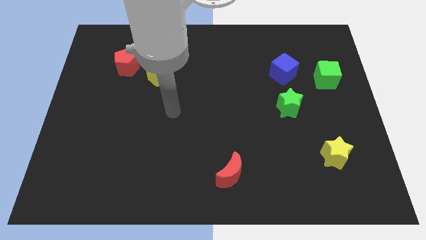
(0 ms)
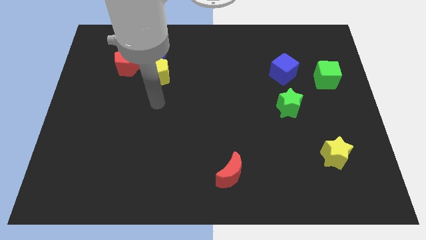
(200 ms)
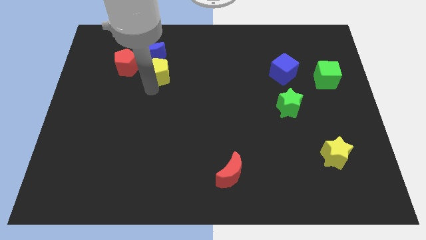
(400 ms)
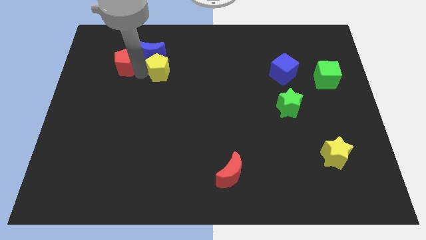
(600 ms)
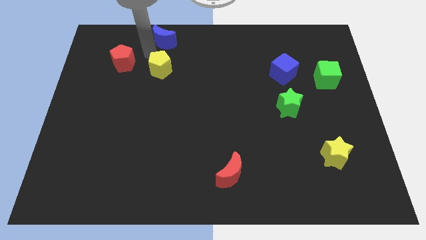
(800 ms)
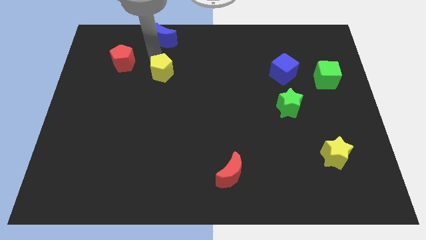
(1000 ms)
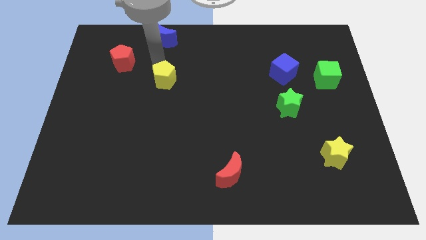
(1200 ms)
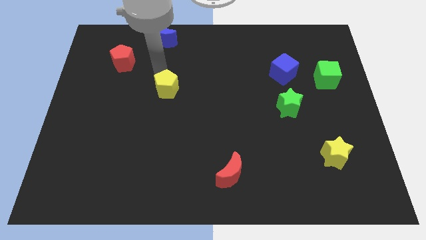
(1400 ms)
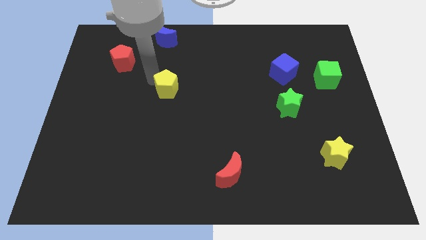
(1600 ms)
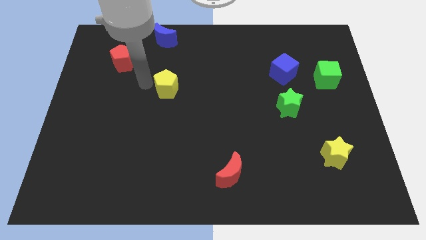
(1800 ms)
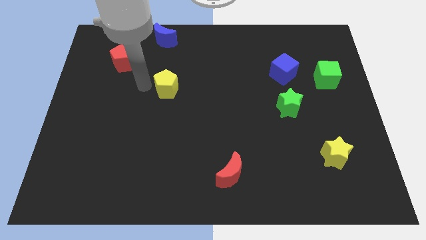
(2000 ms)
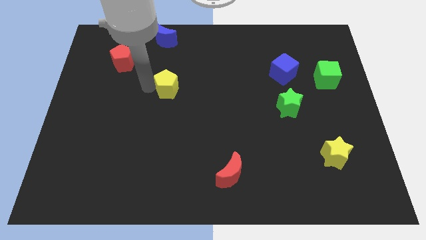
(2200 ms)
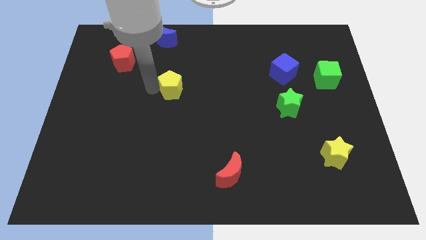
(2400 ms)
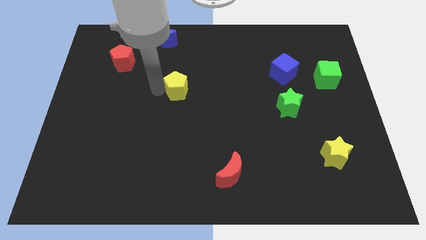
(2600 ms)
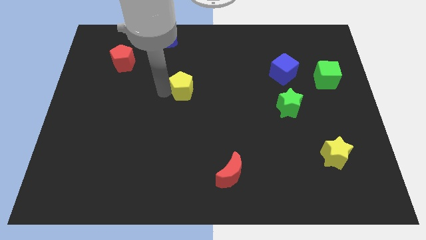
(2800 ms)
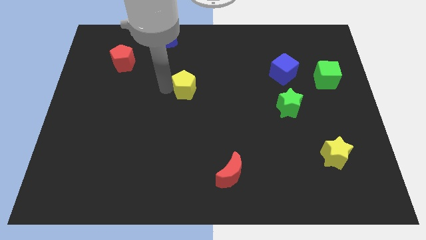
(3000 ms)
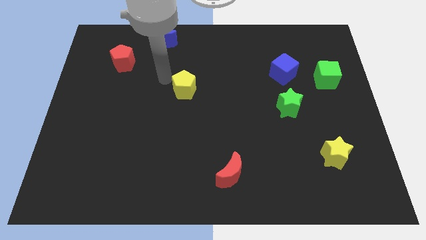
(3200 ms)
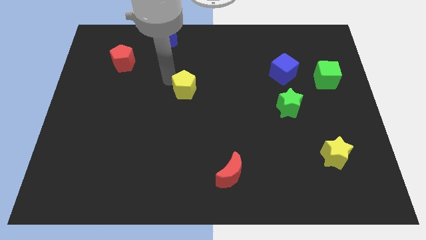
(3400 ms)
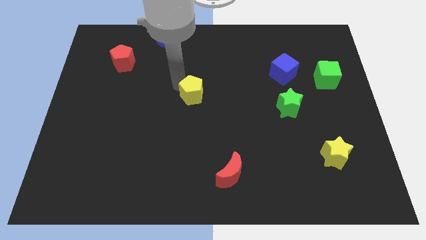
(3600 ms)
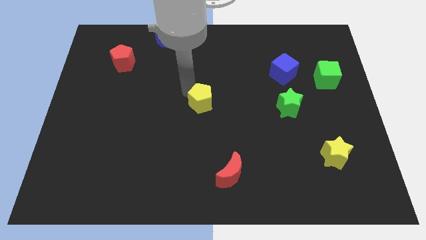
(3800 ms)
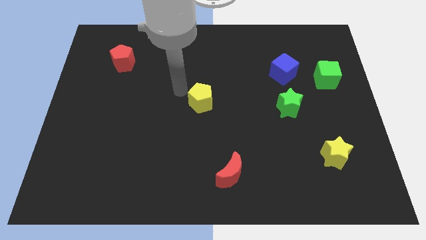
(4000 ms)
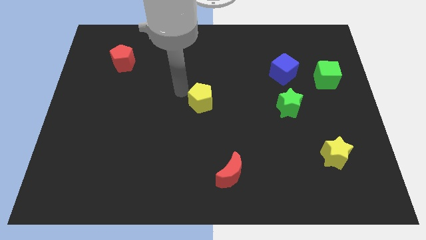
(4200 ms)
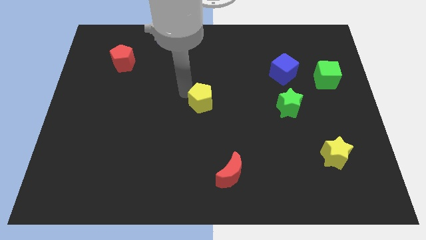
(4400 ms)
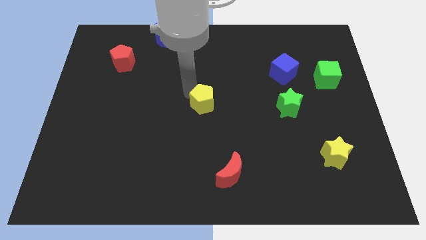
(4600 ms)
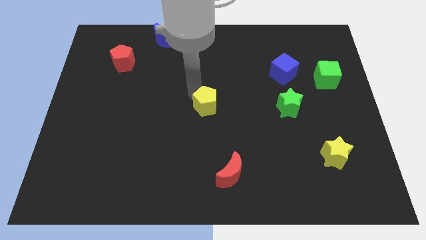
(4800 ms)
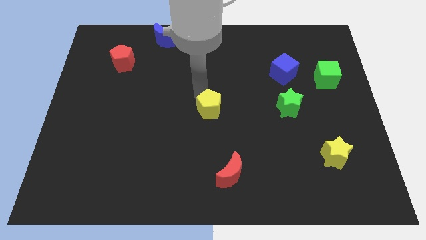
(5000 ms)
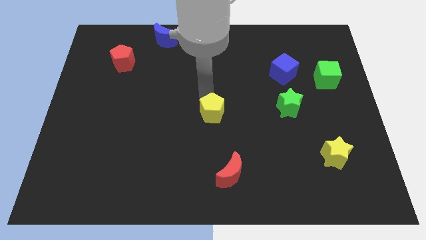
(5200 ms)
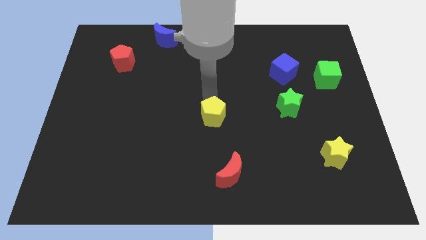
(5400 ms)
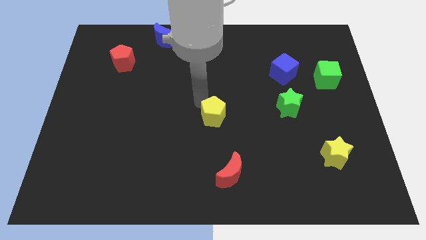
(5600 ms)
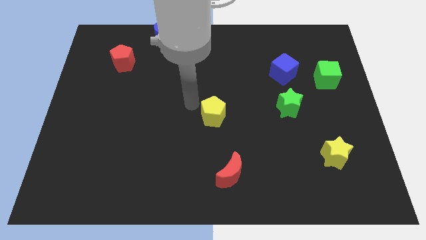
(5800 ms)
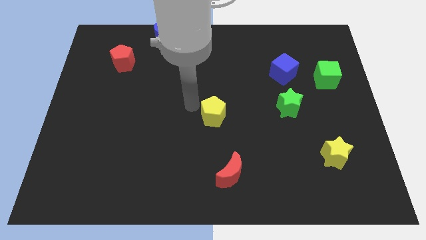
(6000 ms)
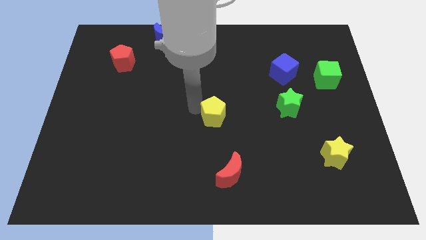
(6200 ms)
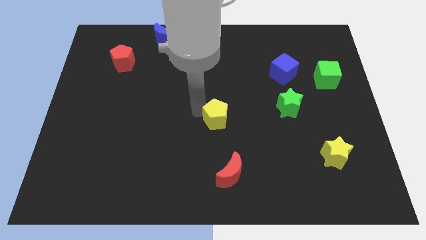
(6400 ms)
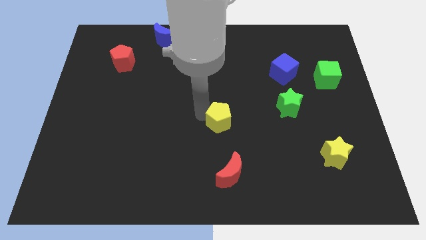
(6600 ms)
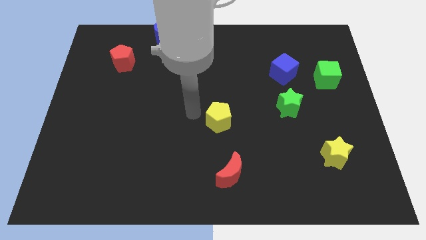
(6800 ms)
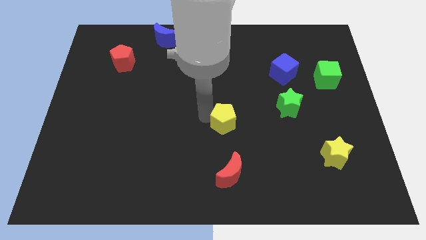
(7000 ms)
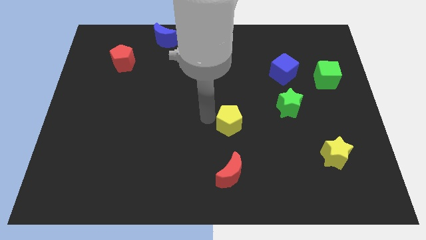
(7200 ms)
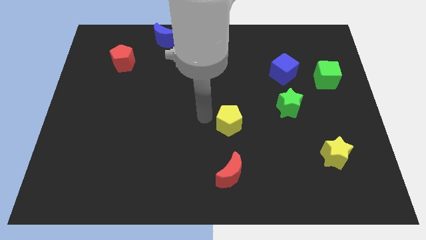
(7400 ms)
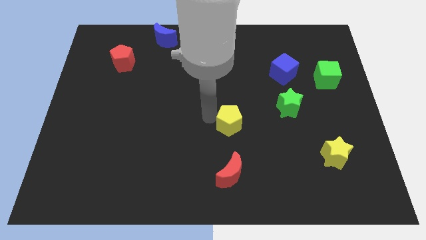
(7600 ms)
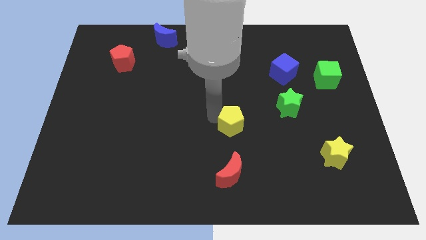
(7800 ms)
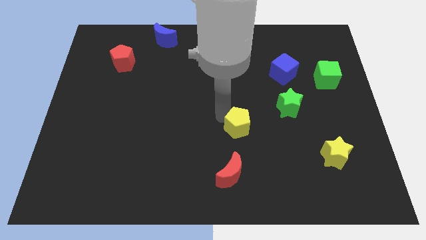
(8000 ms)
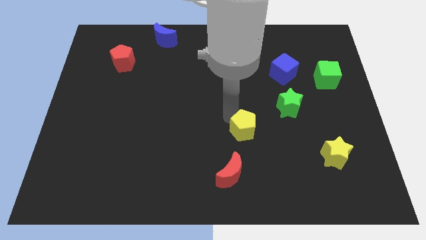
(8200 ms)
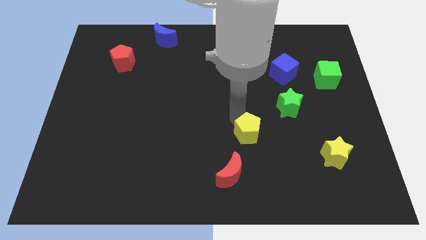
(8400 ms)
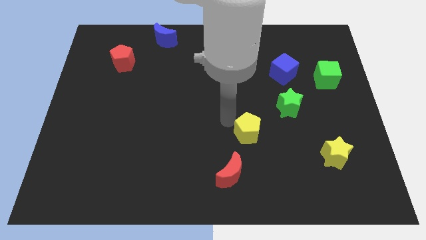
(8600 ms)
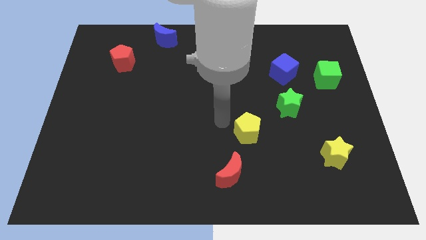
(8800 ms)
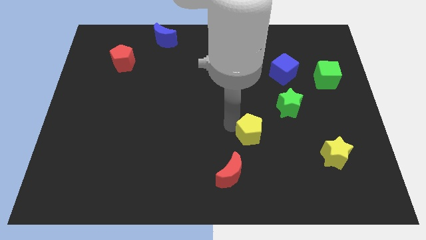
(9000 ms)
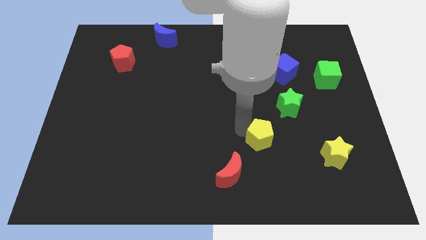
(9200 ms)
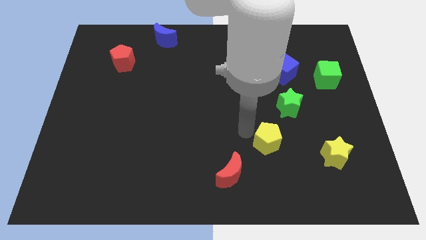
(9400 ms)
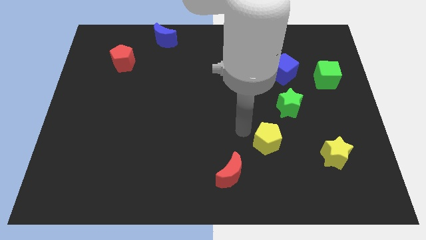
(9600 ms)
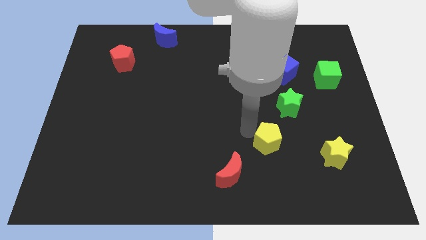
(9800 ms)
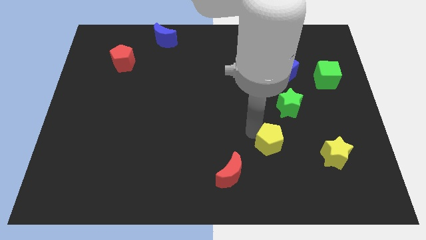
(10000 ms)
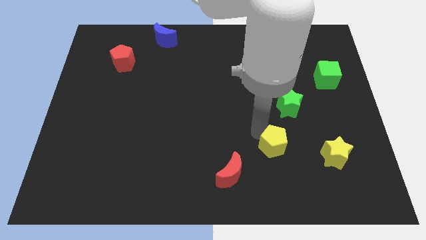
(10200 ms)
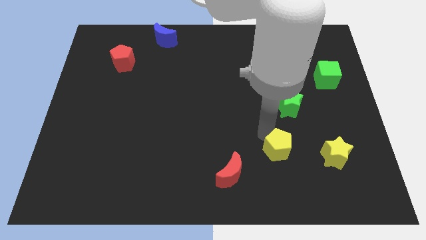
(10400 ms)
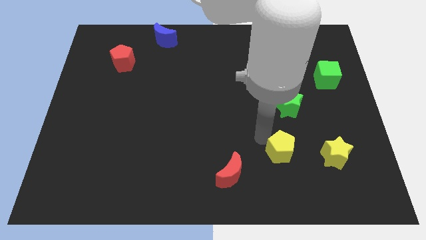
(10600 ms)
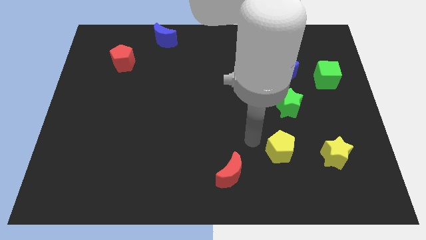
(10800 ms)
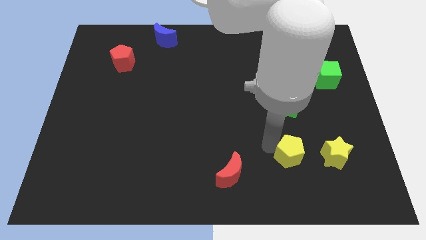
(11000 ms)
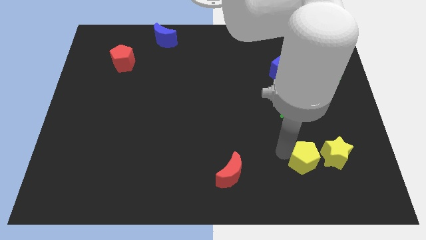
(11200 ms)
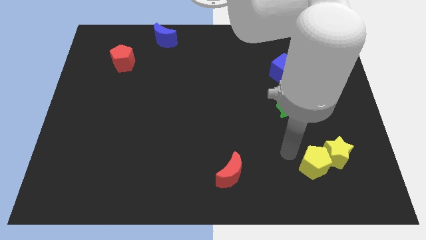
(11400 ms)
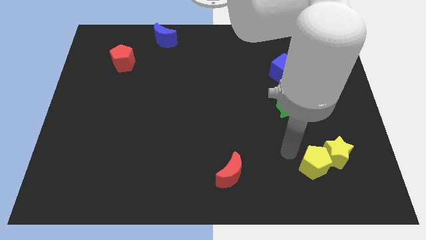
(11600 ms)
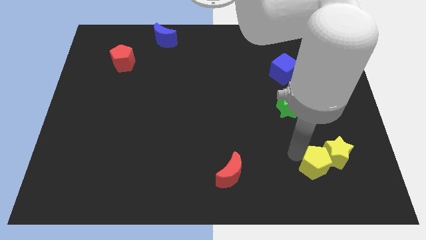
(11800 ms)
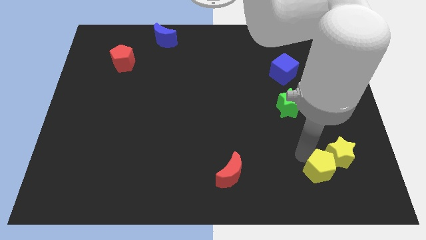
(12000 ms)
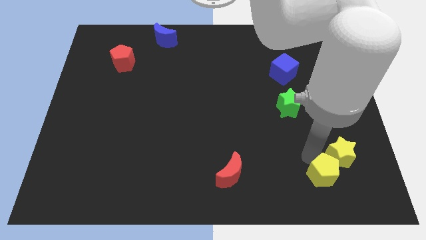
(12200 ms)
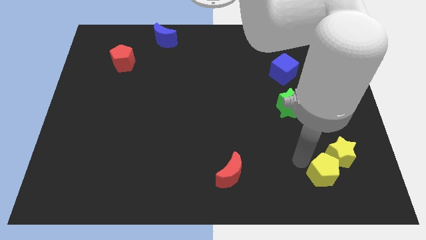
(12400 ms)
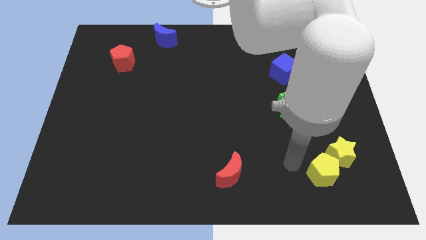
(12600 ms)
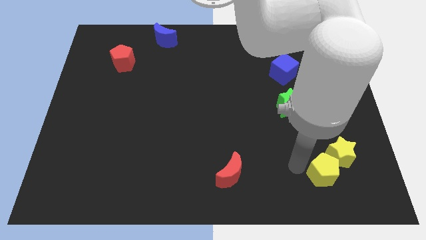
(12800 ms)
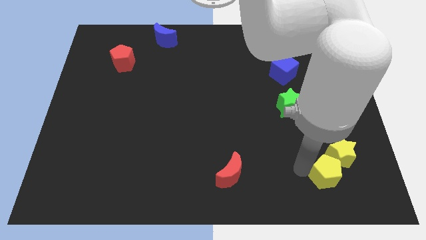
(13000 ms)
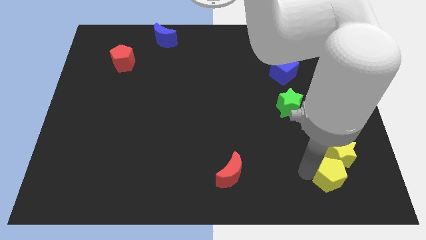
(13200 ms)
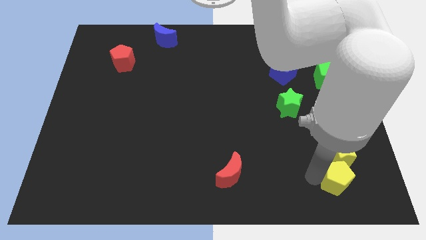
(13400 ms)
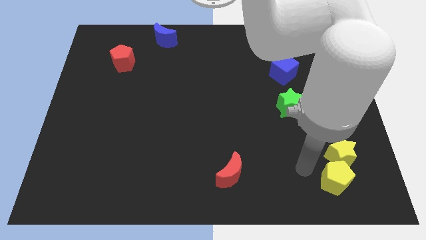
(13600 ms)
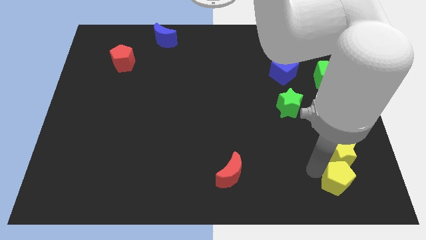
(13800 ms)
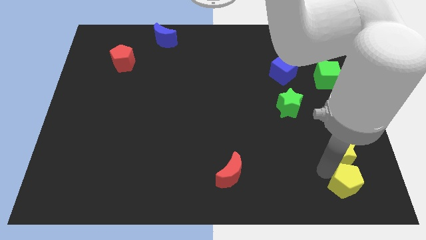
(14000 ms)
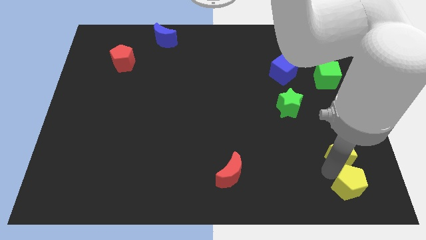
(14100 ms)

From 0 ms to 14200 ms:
move the yellow pentagon to the lower right corner

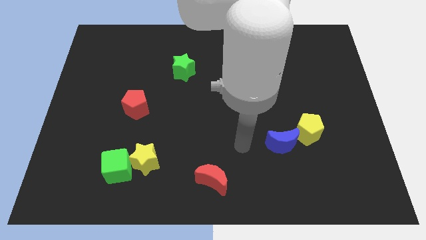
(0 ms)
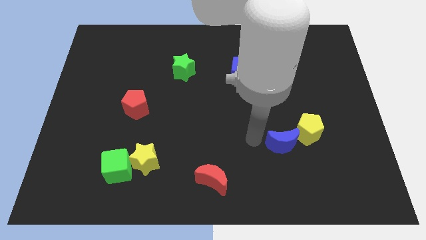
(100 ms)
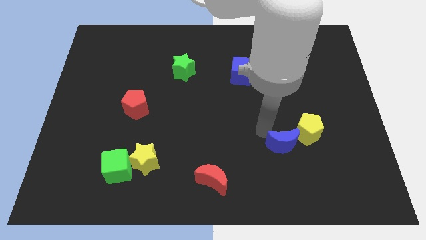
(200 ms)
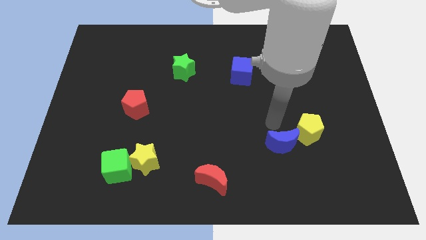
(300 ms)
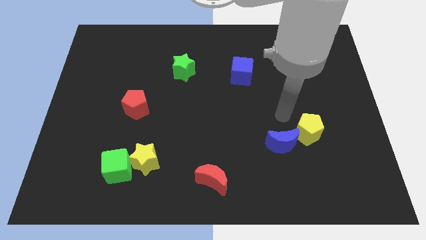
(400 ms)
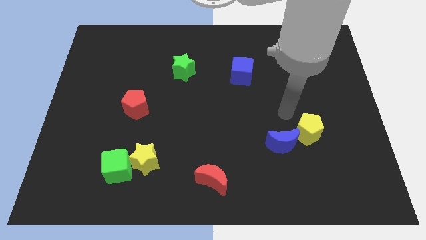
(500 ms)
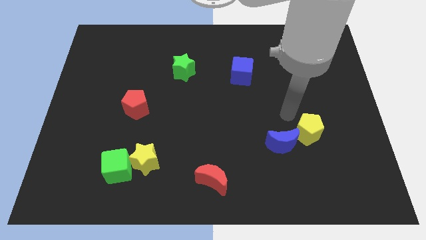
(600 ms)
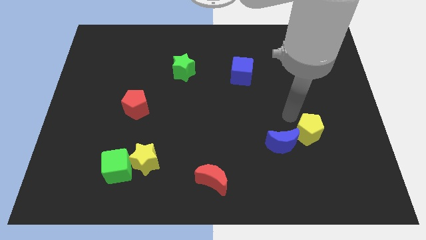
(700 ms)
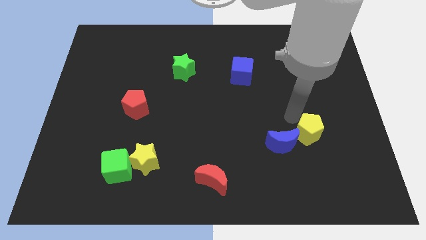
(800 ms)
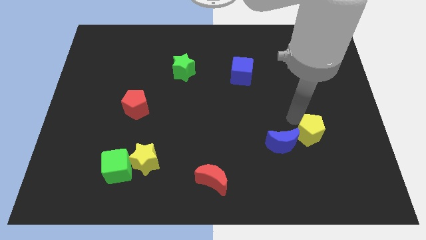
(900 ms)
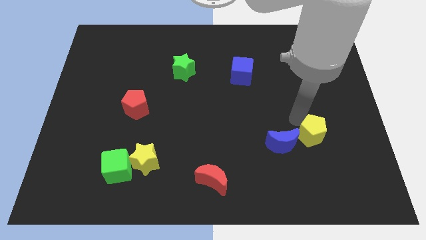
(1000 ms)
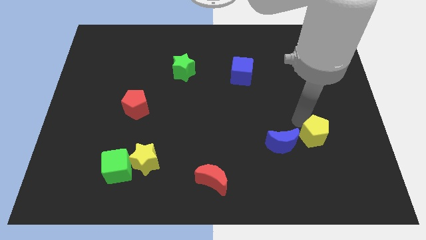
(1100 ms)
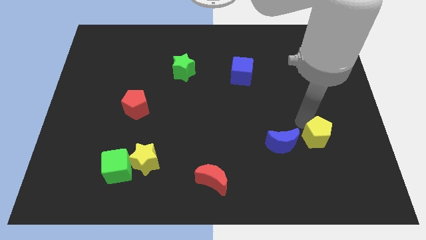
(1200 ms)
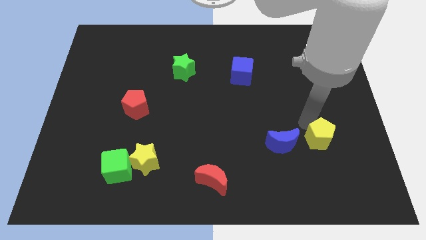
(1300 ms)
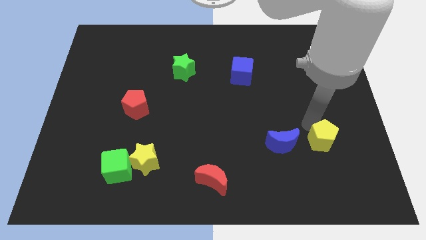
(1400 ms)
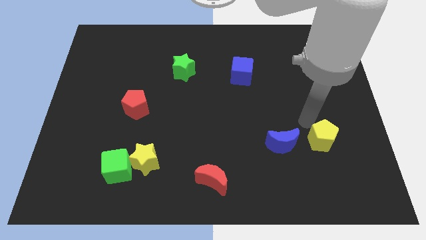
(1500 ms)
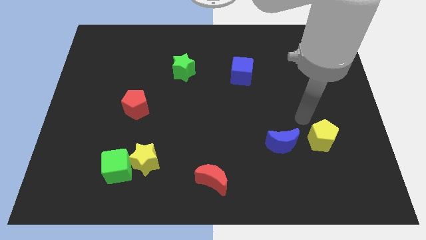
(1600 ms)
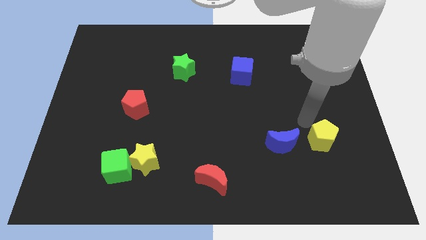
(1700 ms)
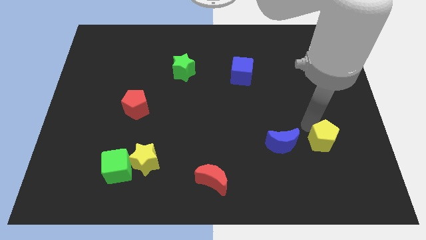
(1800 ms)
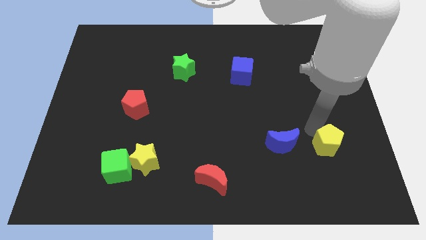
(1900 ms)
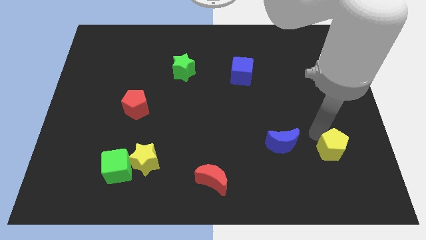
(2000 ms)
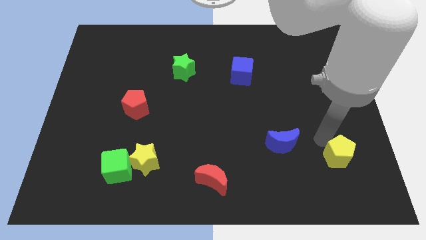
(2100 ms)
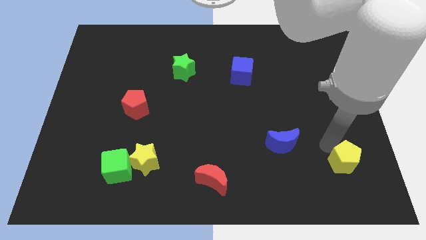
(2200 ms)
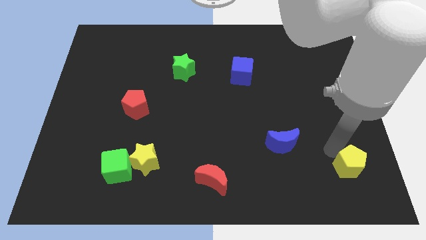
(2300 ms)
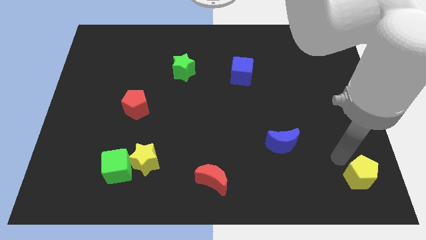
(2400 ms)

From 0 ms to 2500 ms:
move the yellow pentagon to the bottom right
